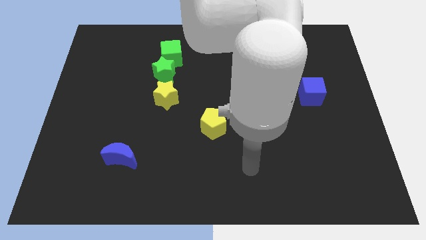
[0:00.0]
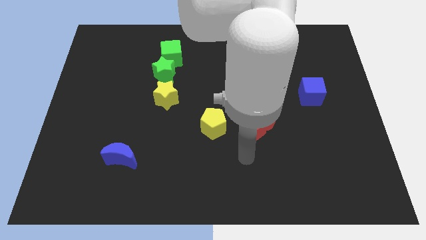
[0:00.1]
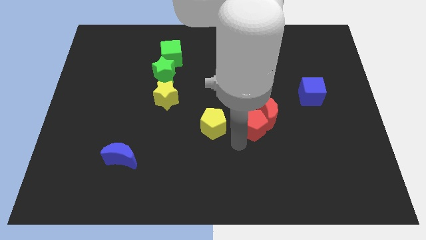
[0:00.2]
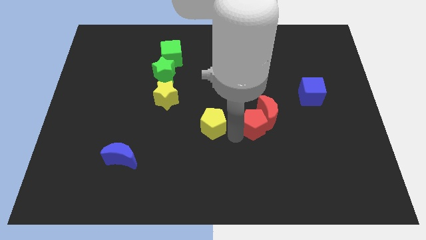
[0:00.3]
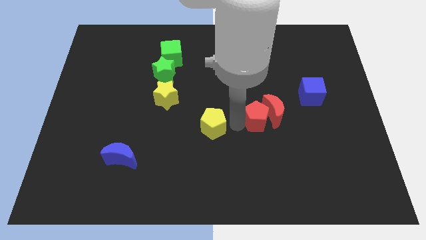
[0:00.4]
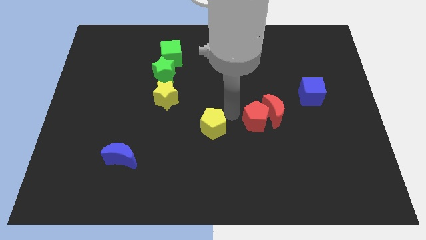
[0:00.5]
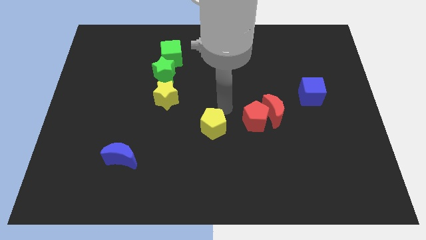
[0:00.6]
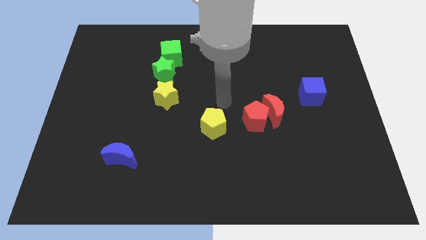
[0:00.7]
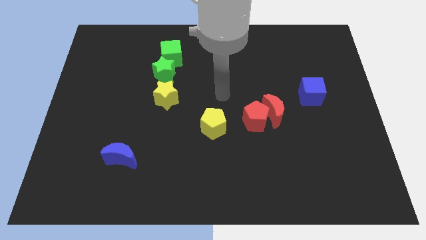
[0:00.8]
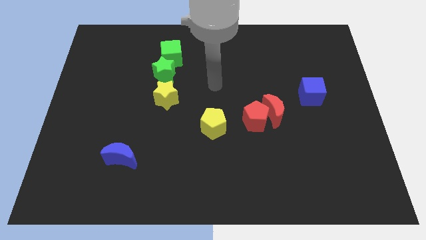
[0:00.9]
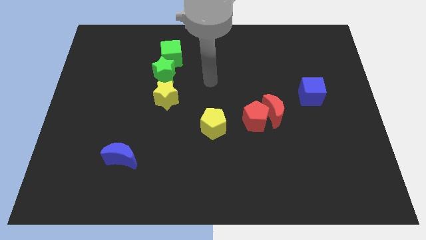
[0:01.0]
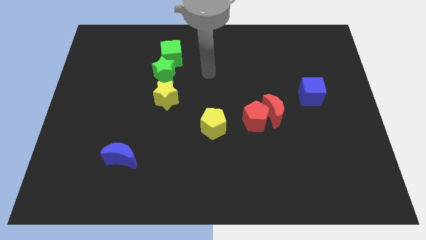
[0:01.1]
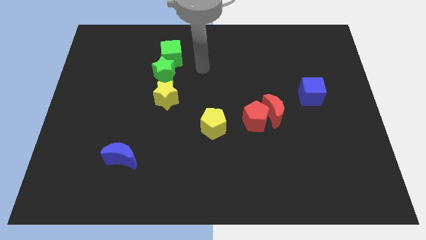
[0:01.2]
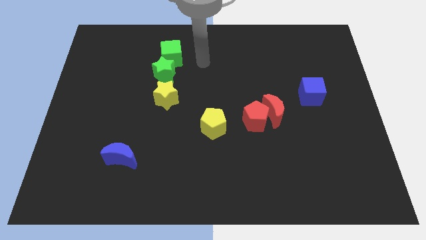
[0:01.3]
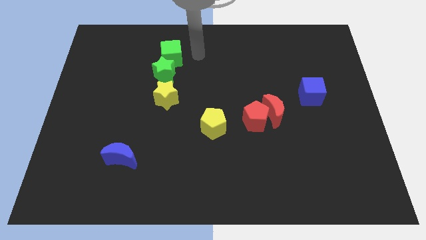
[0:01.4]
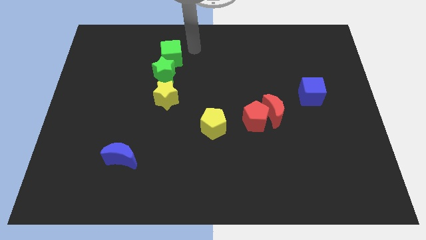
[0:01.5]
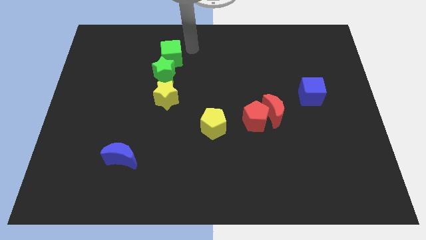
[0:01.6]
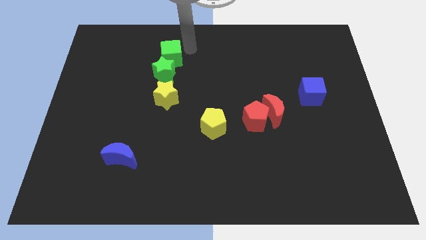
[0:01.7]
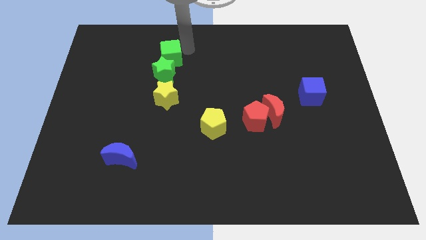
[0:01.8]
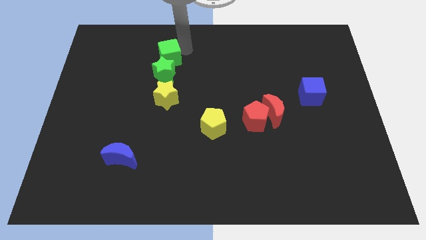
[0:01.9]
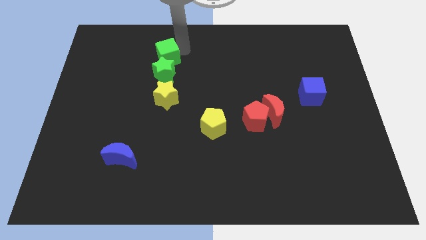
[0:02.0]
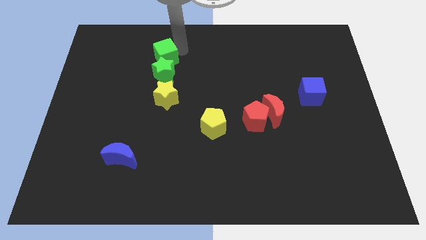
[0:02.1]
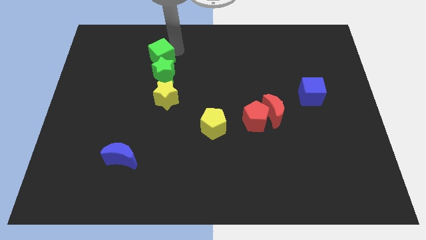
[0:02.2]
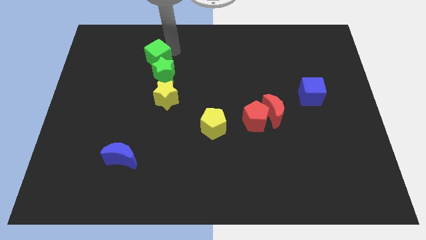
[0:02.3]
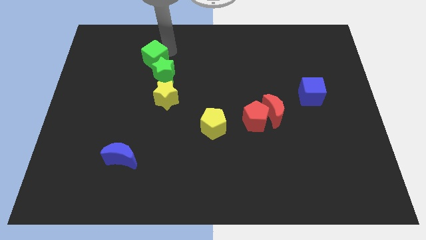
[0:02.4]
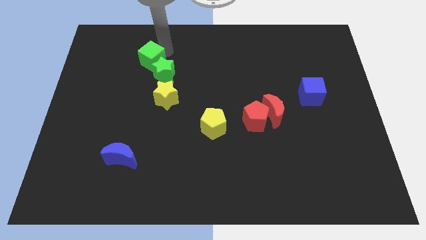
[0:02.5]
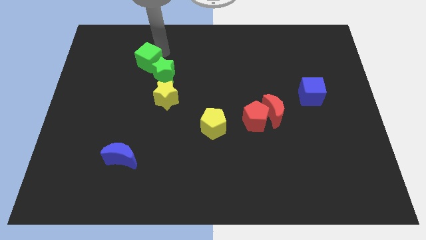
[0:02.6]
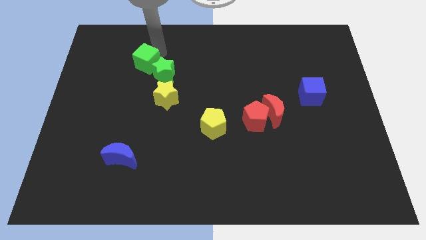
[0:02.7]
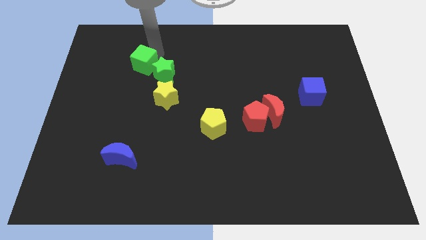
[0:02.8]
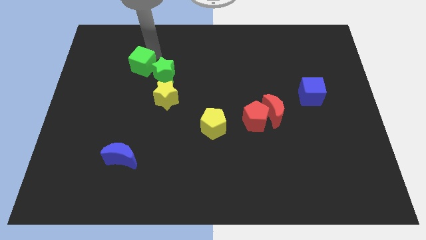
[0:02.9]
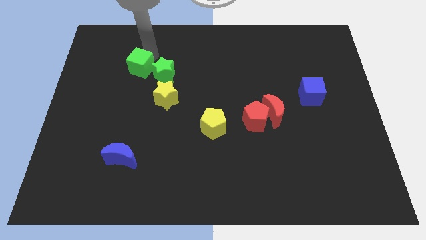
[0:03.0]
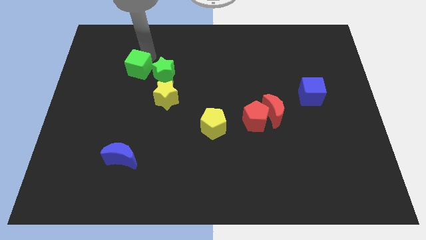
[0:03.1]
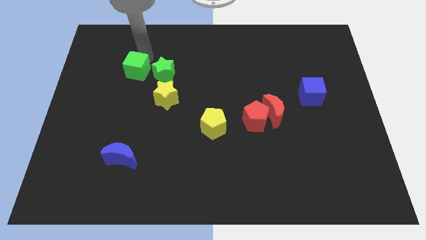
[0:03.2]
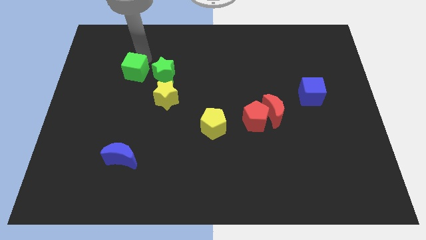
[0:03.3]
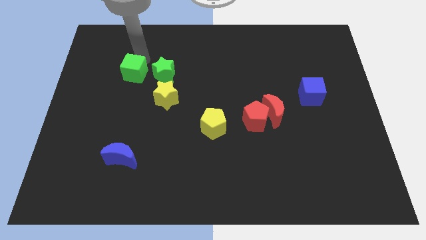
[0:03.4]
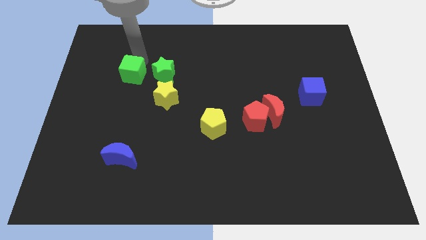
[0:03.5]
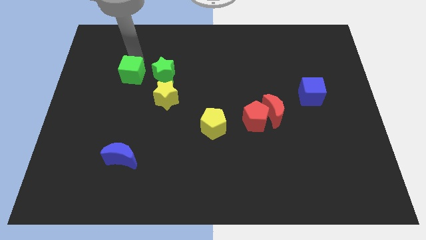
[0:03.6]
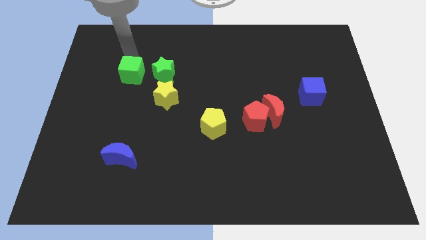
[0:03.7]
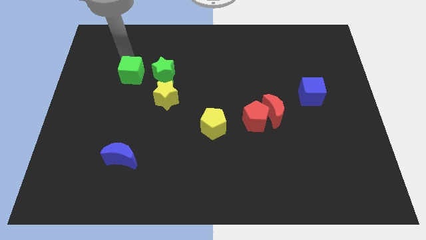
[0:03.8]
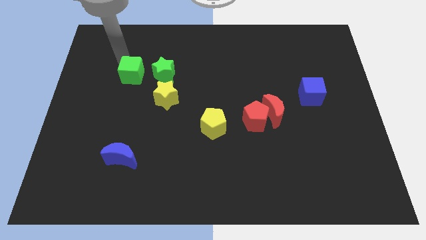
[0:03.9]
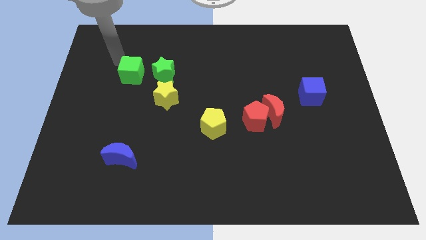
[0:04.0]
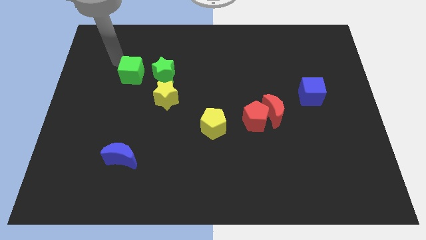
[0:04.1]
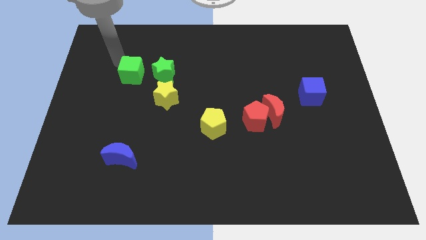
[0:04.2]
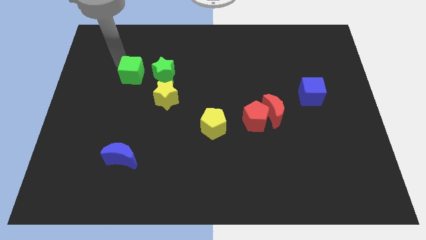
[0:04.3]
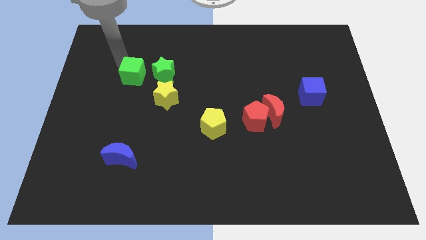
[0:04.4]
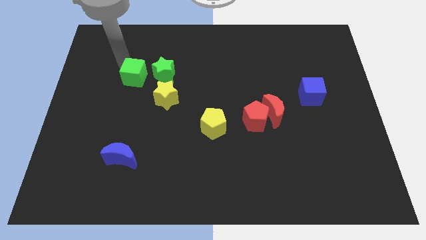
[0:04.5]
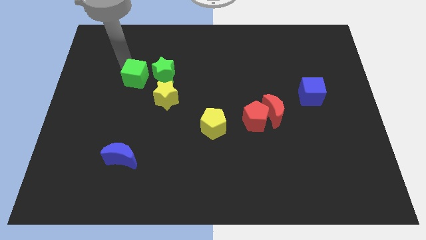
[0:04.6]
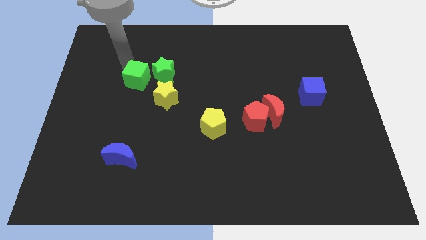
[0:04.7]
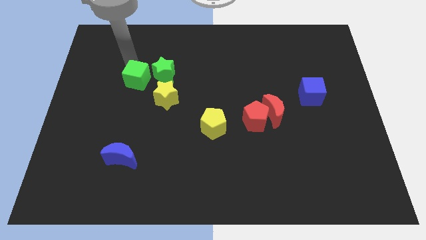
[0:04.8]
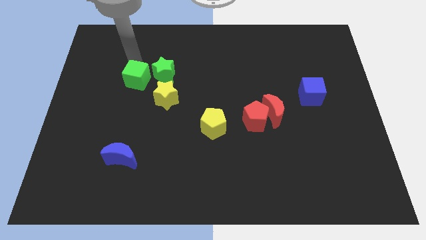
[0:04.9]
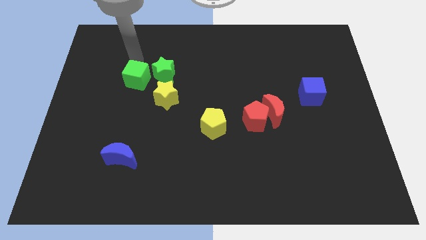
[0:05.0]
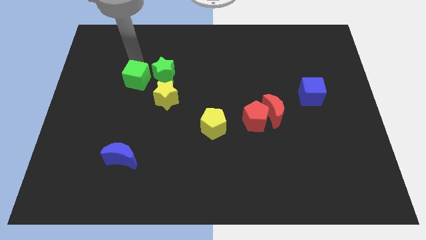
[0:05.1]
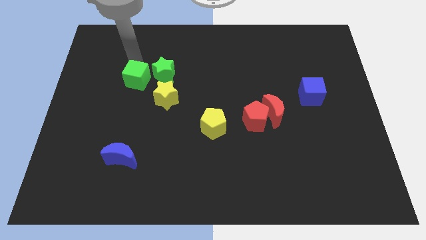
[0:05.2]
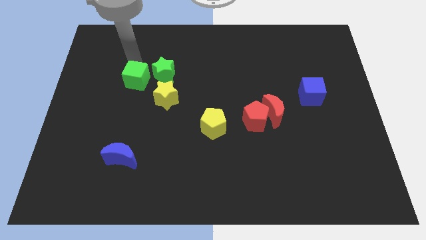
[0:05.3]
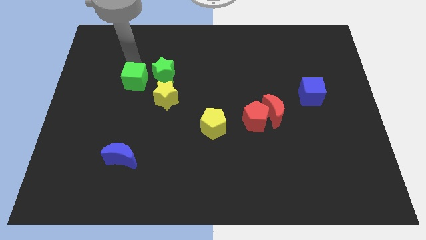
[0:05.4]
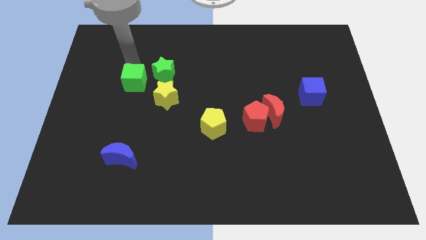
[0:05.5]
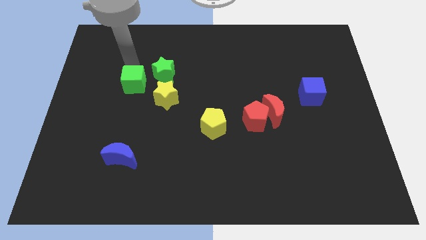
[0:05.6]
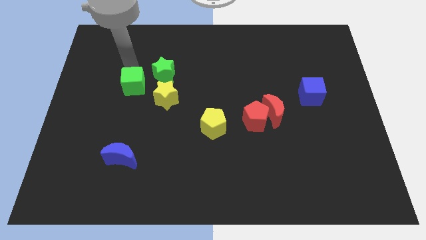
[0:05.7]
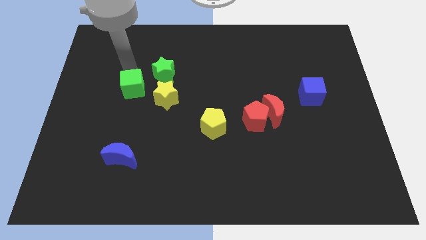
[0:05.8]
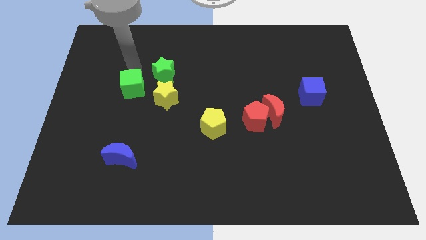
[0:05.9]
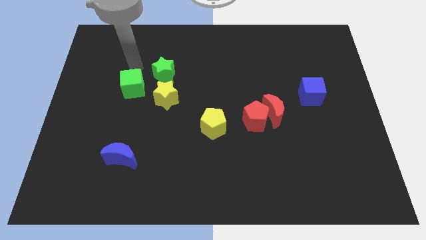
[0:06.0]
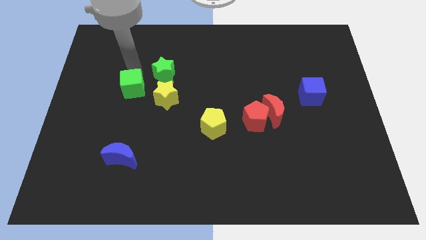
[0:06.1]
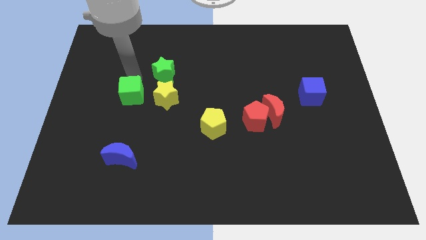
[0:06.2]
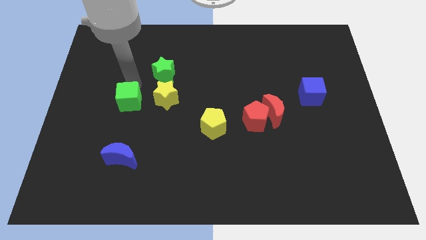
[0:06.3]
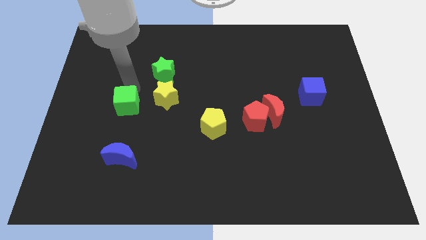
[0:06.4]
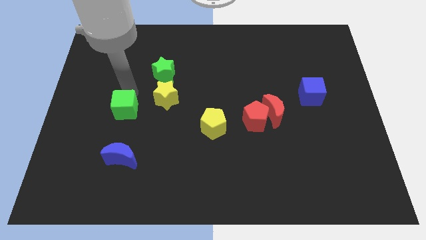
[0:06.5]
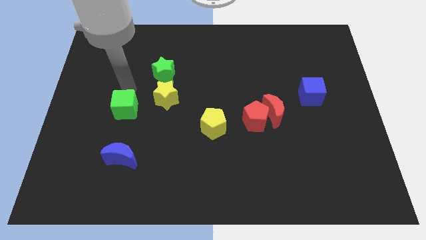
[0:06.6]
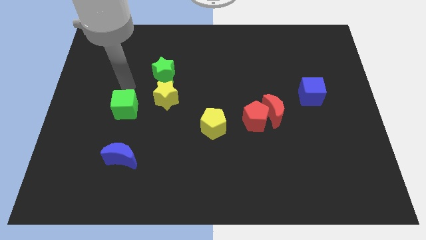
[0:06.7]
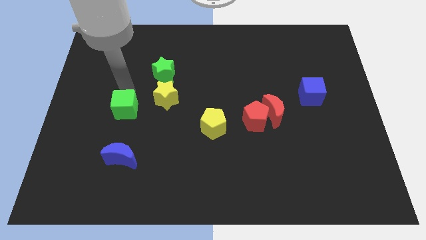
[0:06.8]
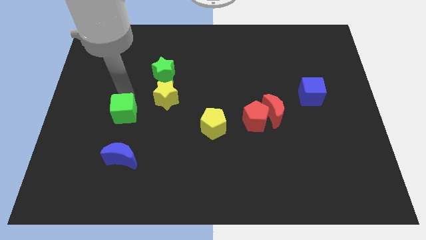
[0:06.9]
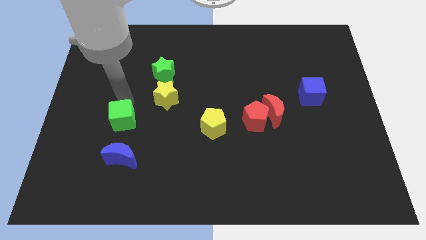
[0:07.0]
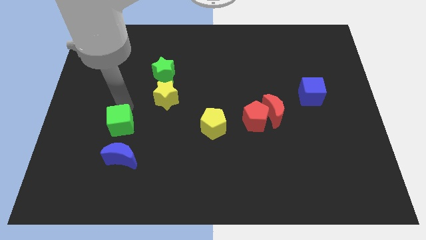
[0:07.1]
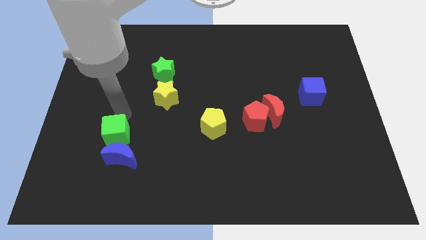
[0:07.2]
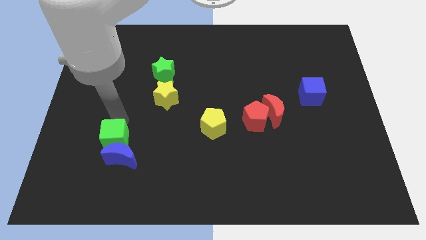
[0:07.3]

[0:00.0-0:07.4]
slide the green cube to the blue moon

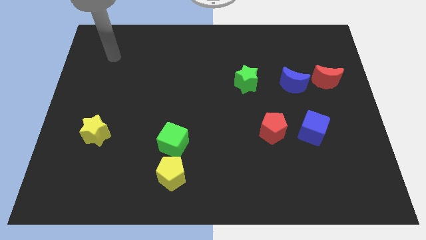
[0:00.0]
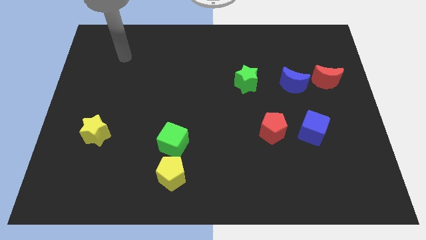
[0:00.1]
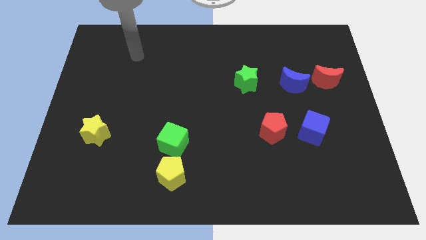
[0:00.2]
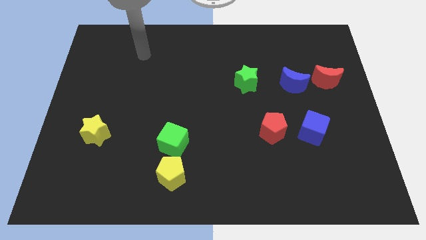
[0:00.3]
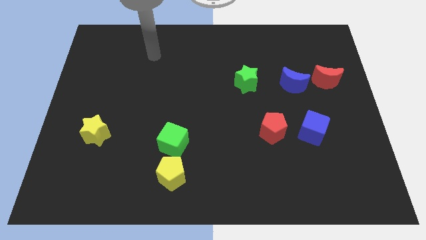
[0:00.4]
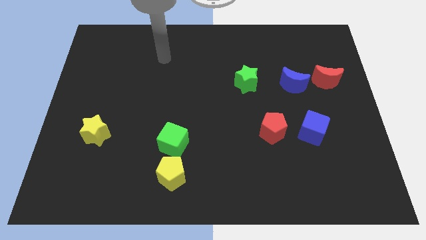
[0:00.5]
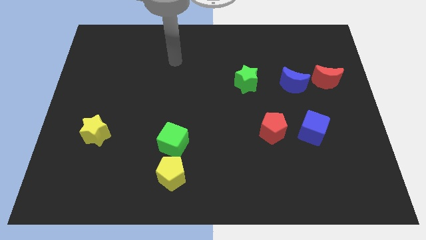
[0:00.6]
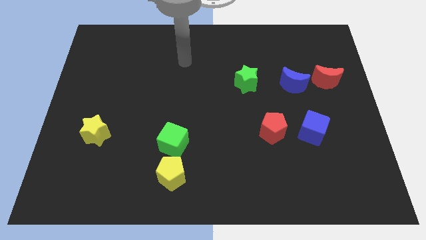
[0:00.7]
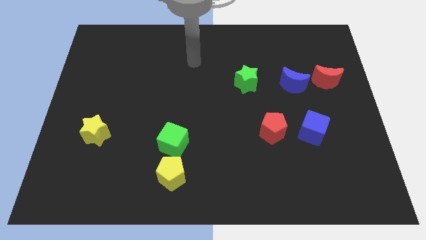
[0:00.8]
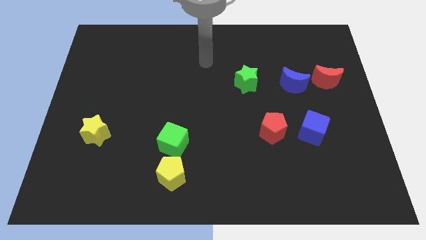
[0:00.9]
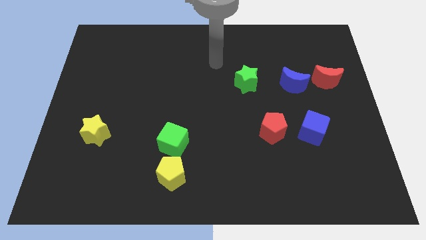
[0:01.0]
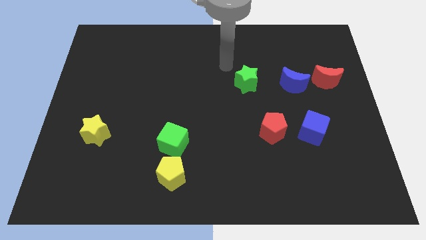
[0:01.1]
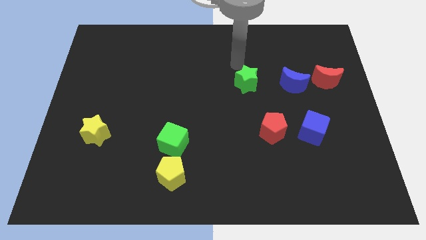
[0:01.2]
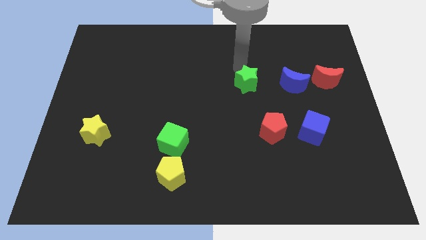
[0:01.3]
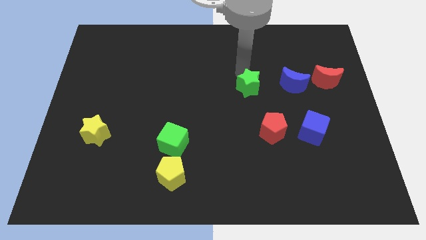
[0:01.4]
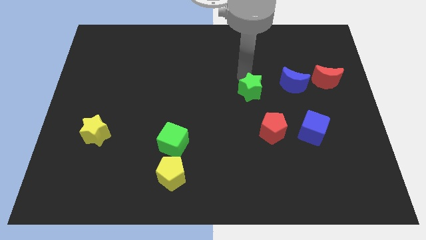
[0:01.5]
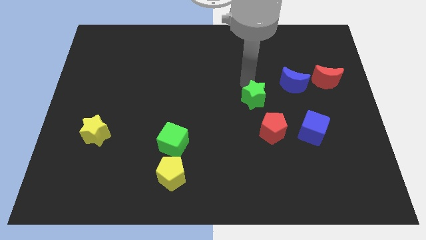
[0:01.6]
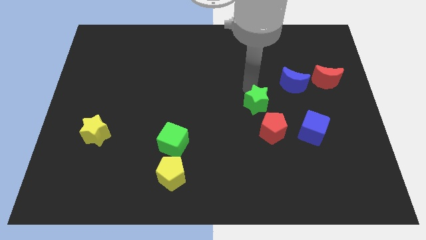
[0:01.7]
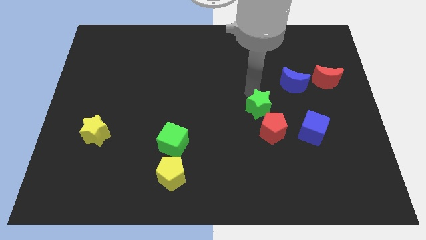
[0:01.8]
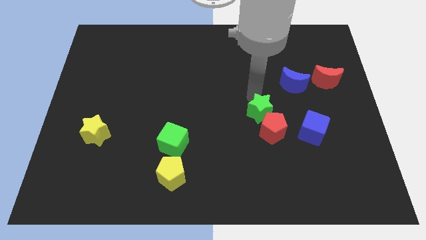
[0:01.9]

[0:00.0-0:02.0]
move the green star close to the red pentagon
